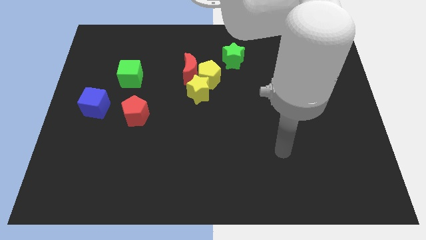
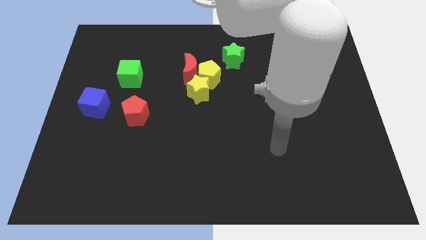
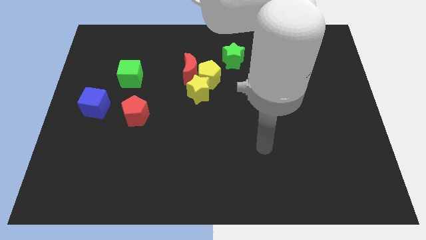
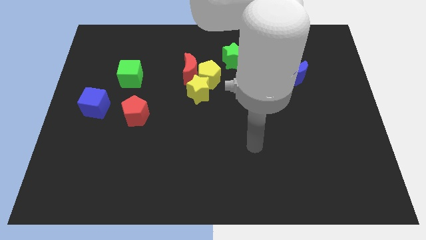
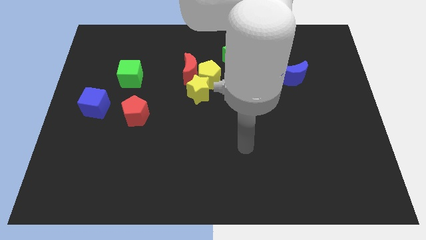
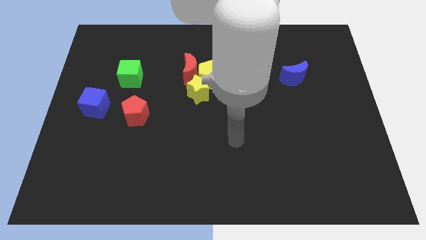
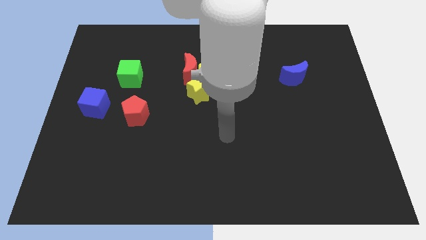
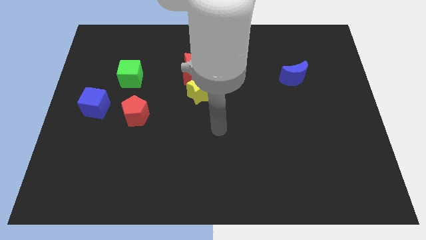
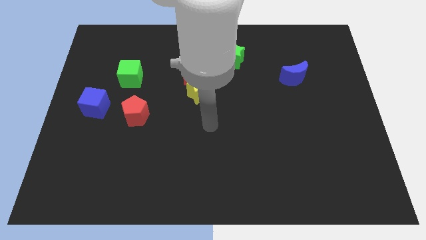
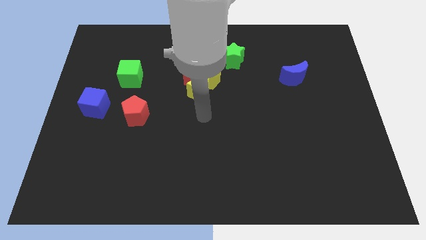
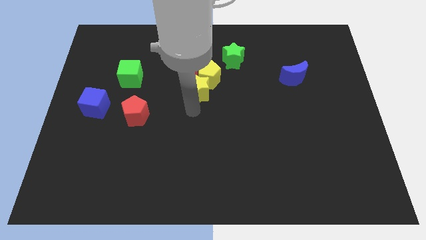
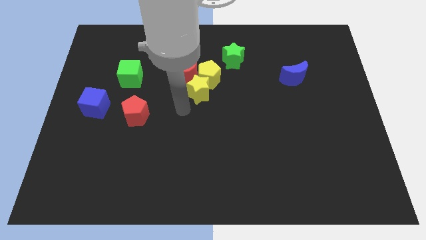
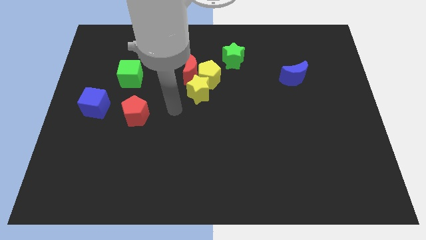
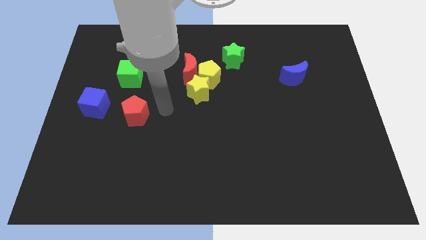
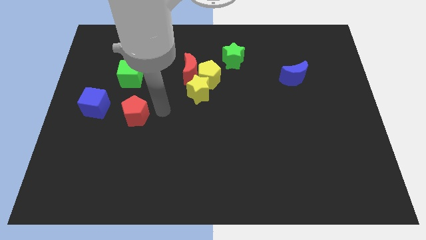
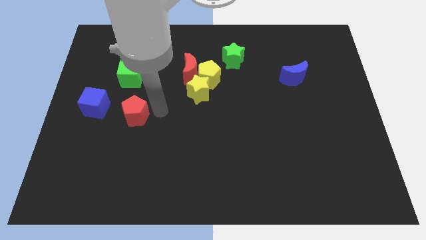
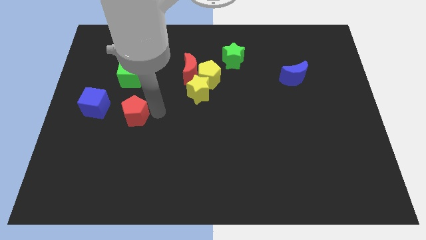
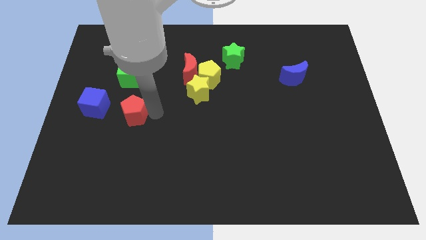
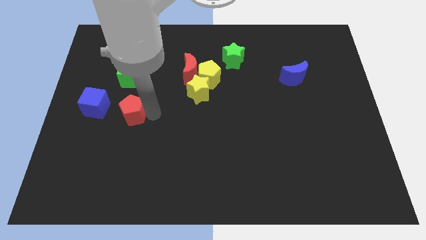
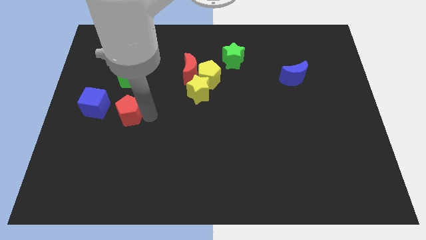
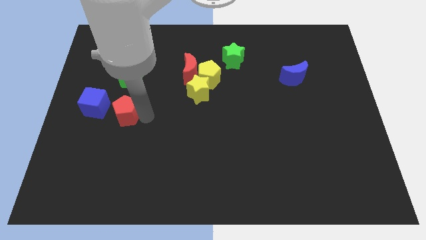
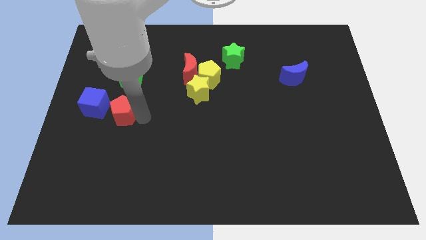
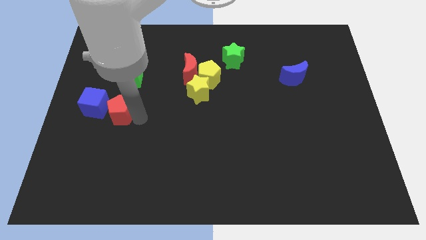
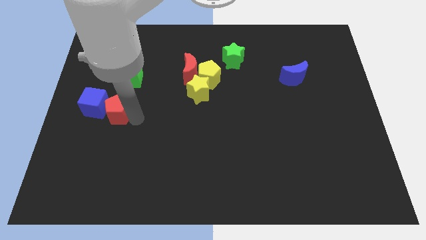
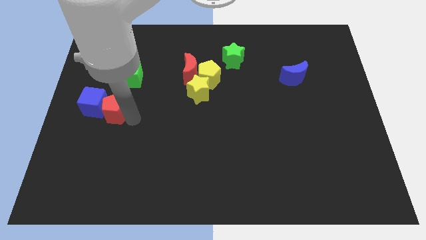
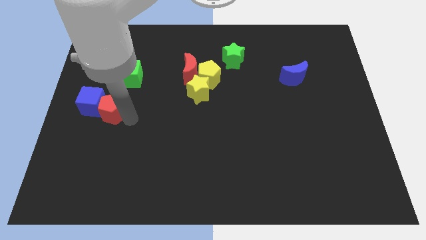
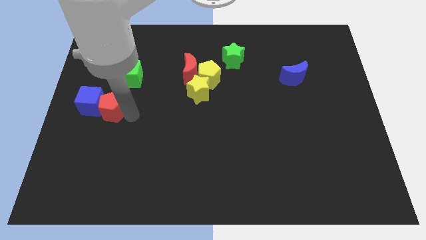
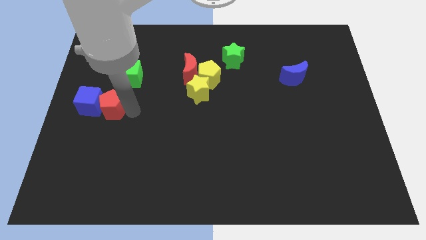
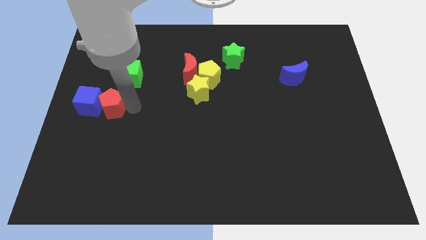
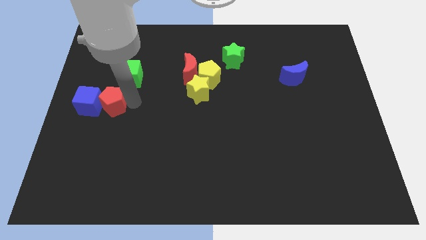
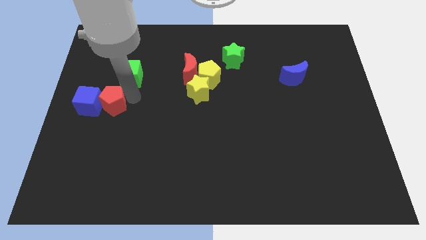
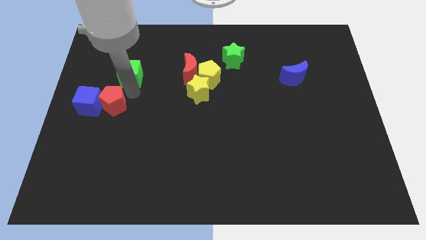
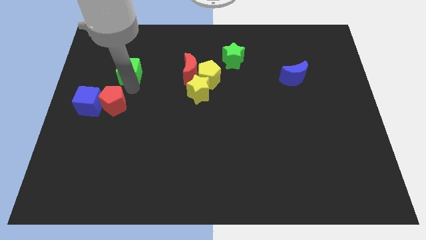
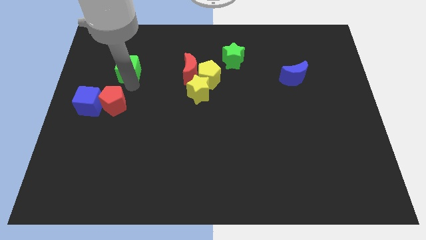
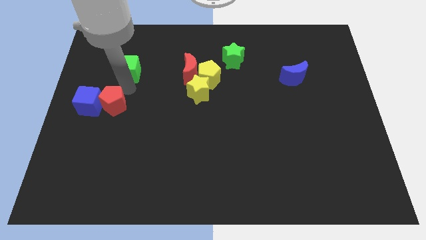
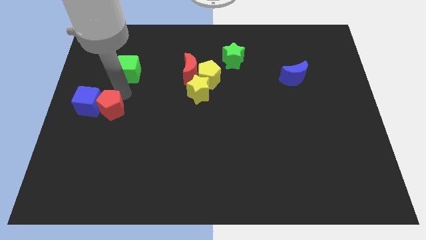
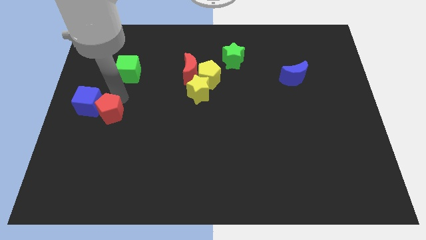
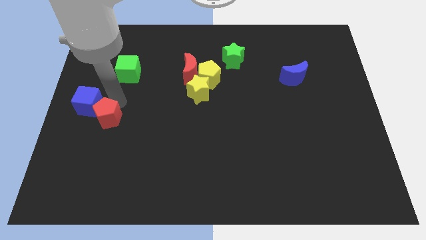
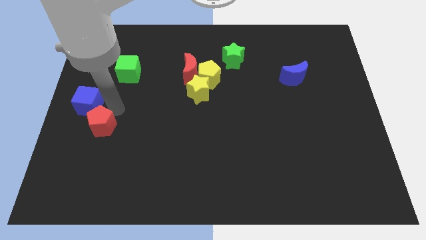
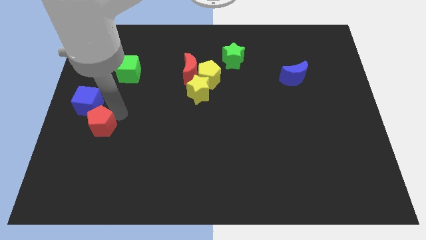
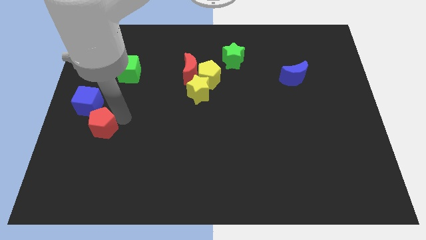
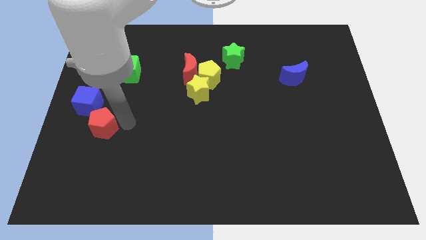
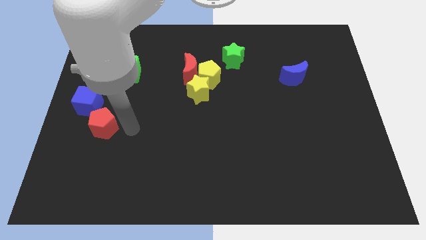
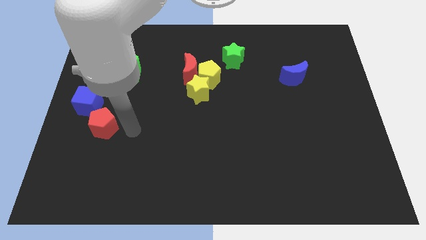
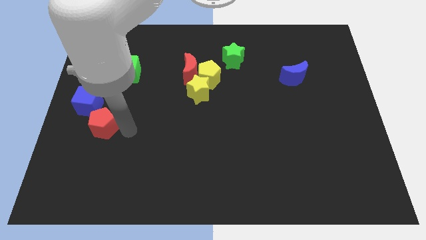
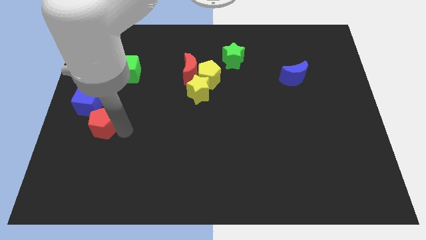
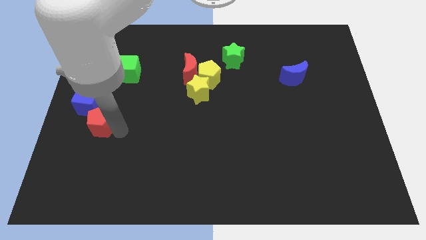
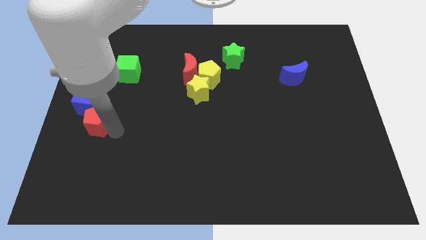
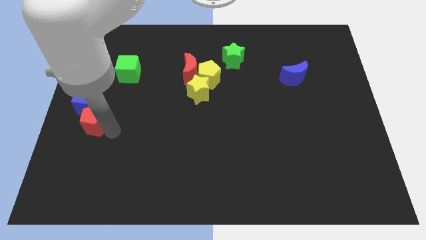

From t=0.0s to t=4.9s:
push the red pentagon to the center left

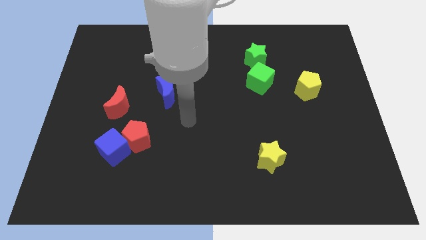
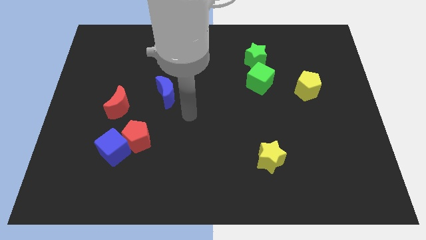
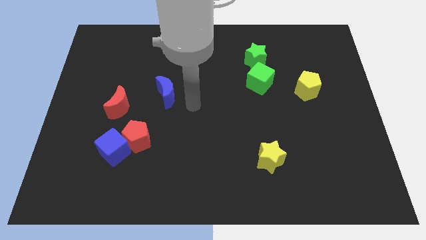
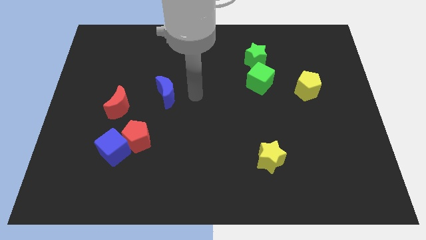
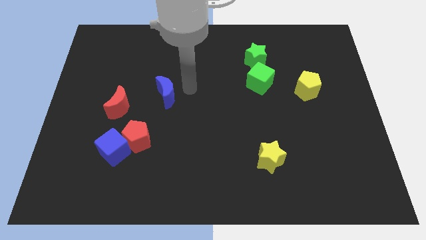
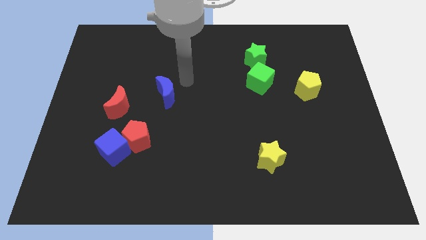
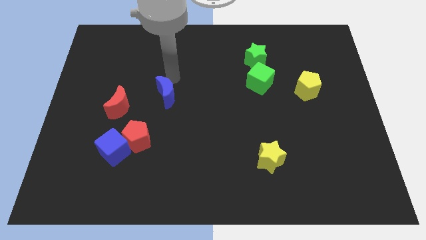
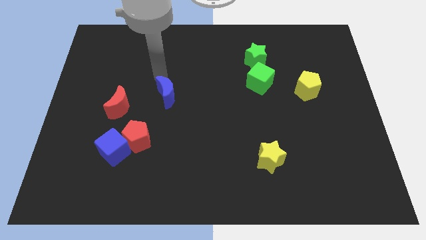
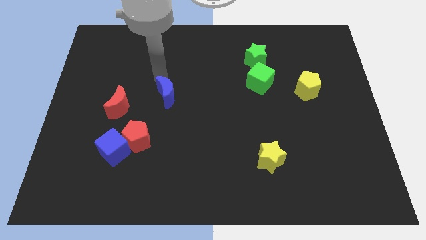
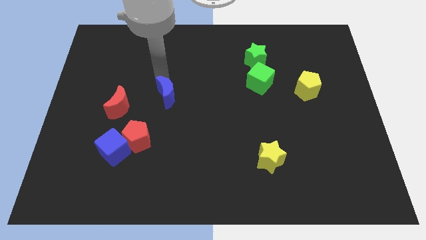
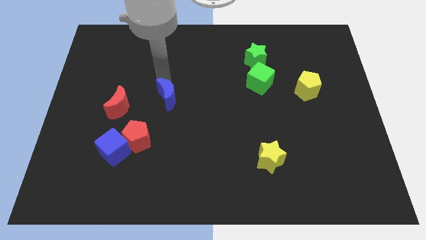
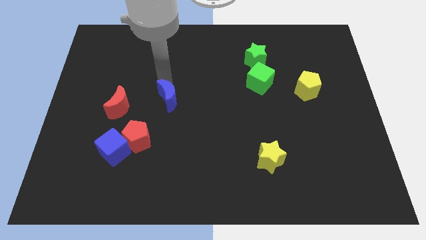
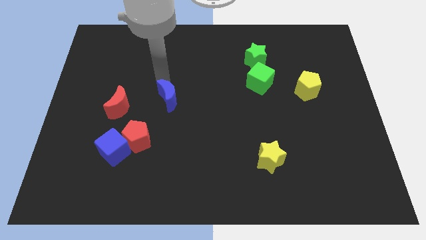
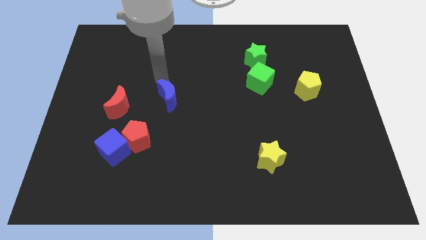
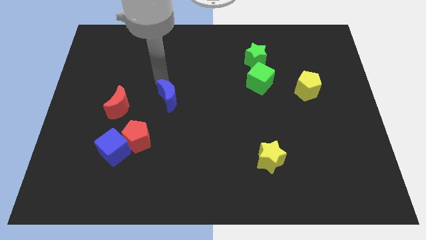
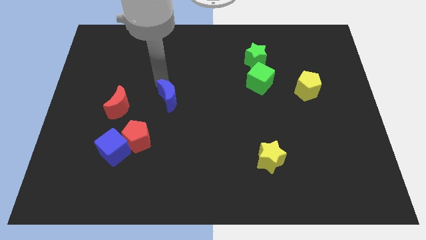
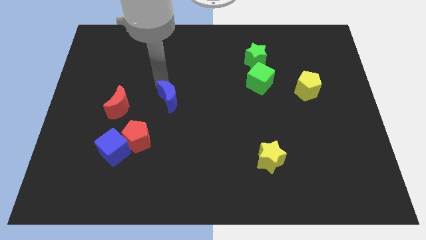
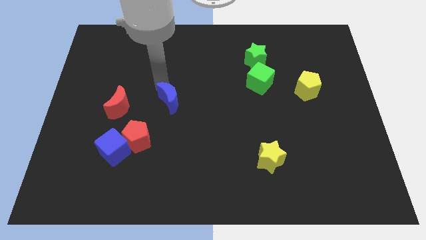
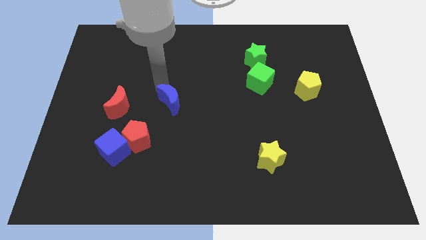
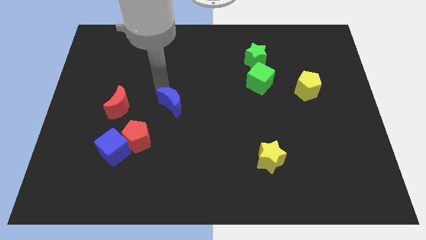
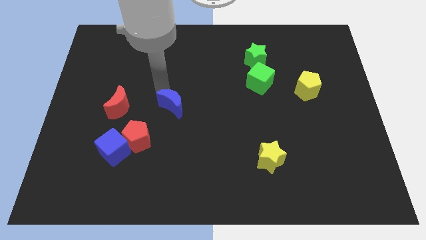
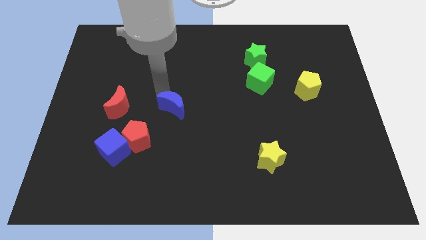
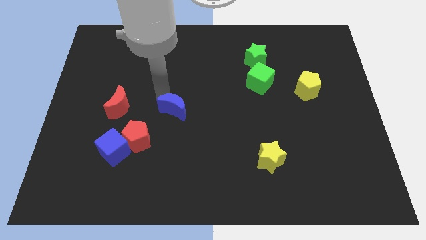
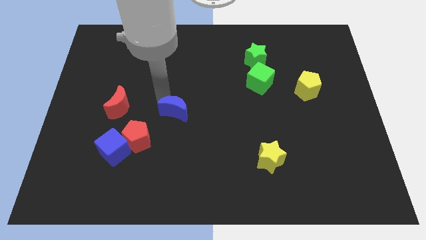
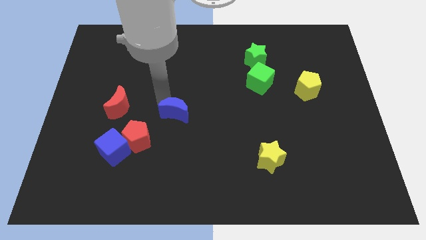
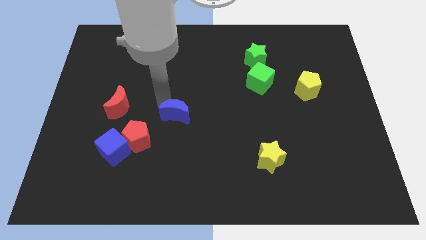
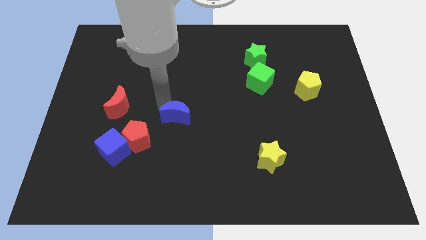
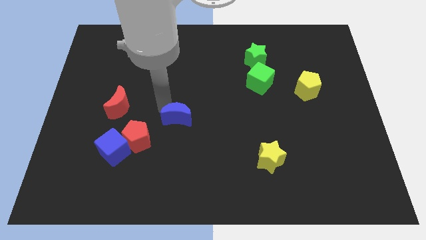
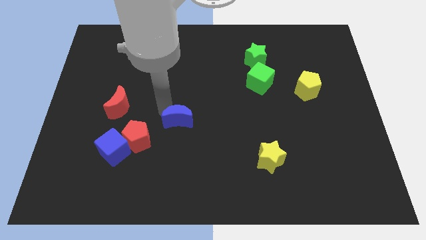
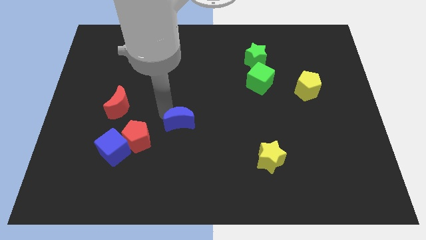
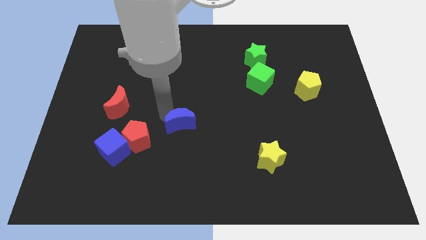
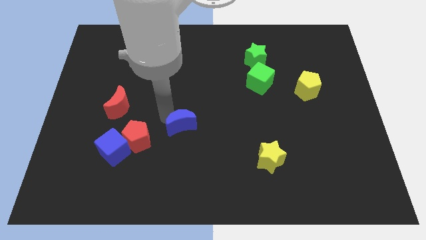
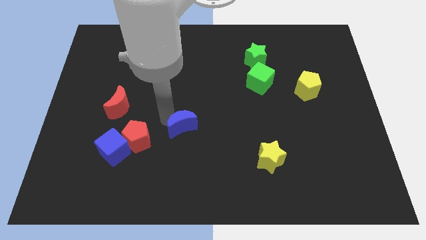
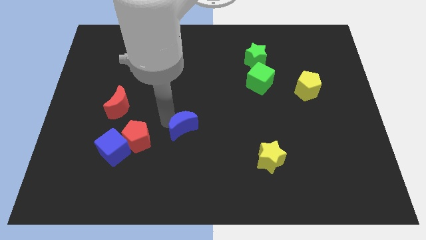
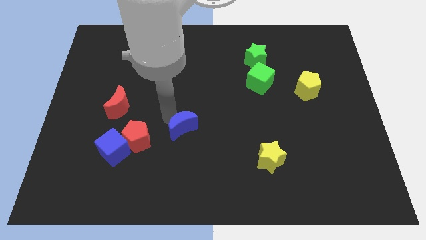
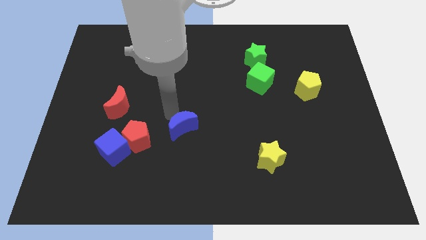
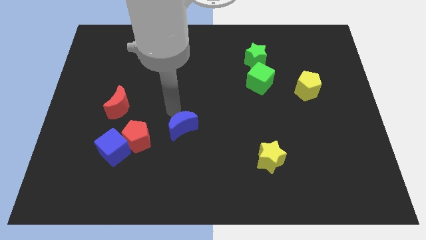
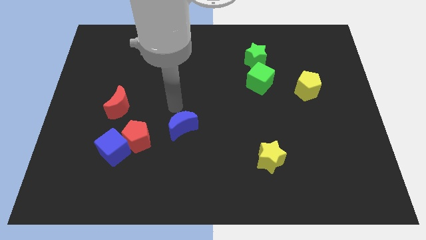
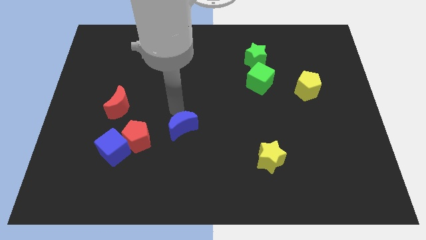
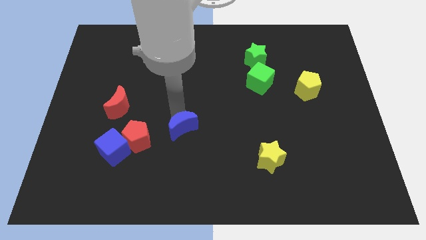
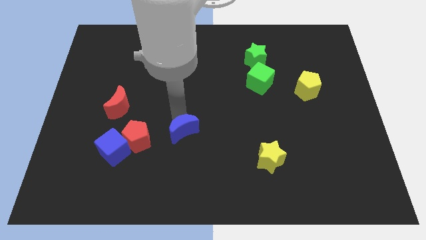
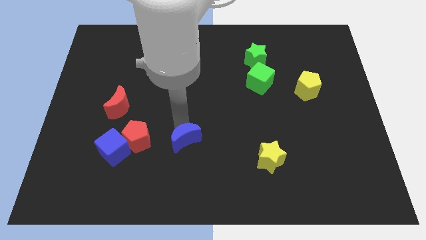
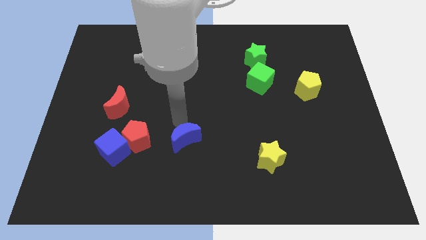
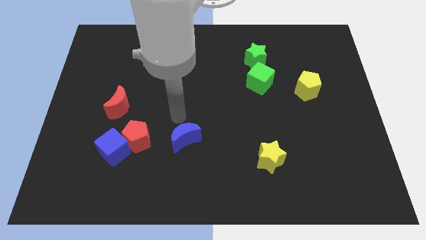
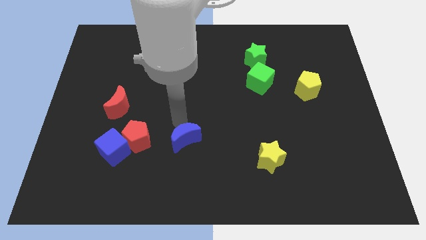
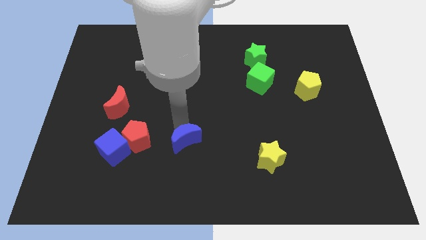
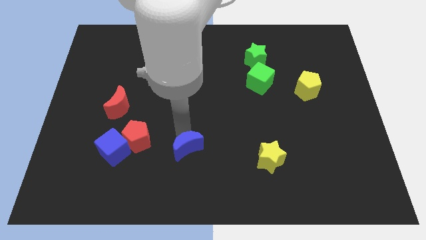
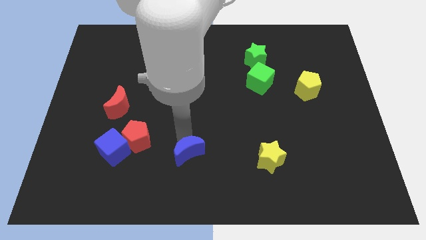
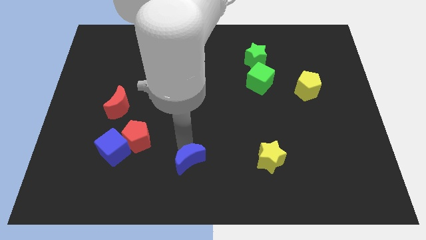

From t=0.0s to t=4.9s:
put the blue moon to the bottom
